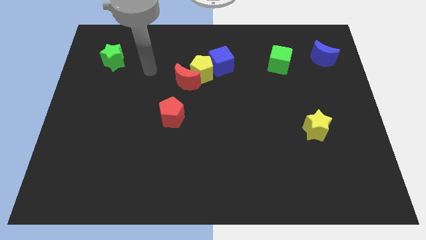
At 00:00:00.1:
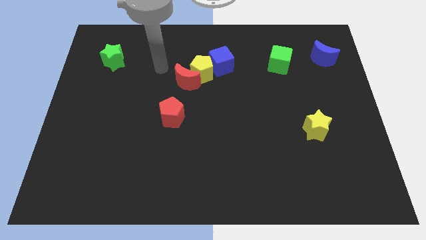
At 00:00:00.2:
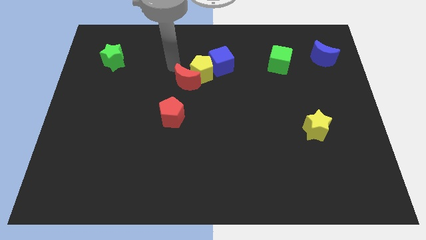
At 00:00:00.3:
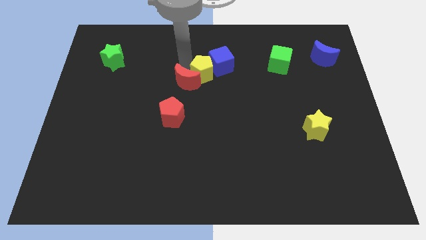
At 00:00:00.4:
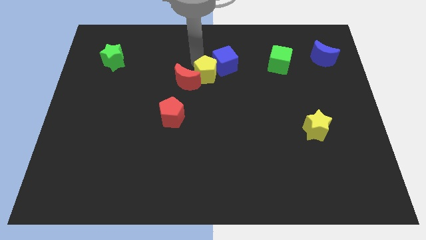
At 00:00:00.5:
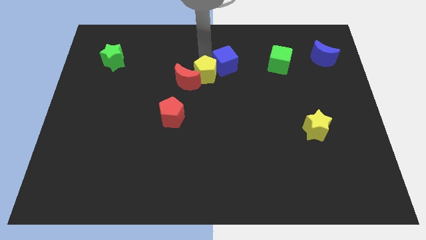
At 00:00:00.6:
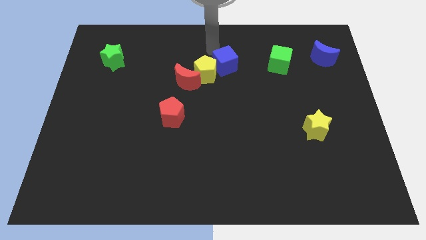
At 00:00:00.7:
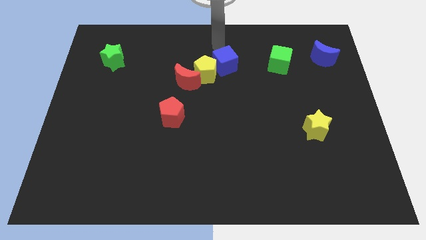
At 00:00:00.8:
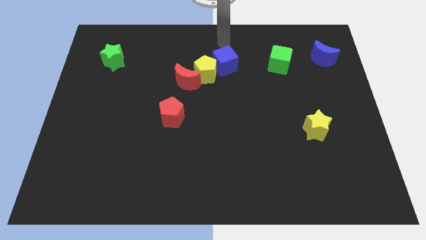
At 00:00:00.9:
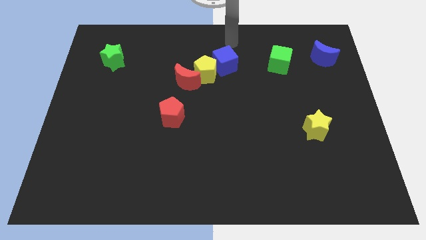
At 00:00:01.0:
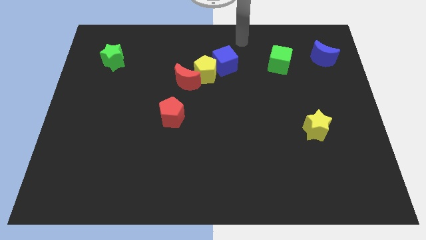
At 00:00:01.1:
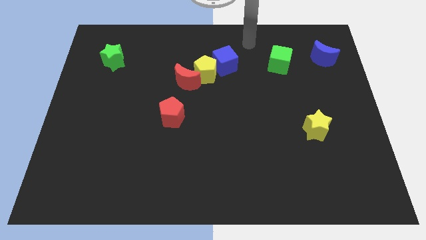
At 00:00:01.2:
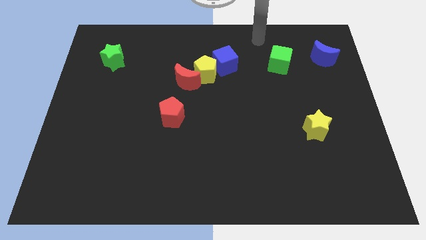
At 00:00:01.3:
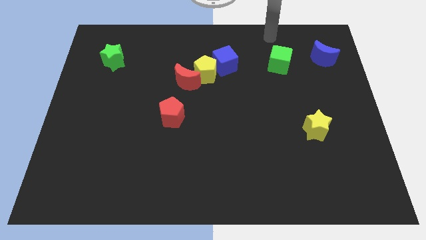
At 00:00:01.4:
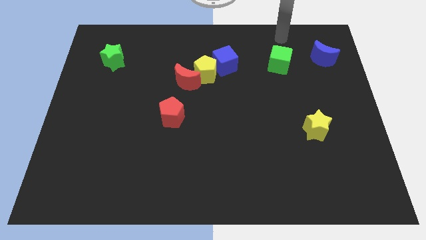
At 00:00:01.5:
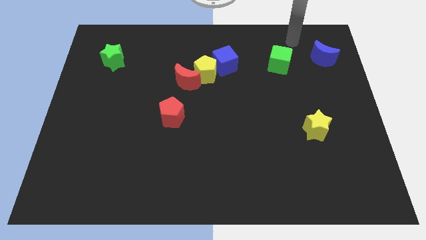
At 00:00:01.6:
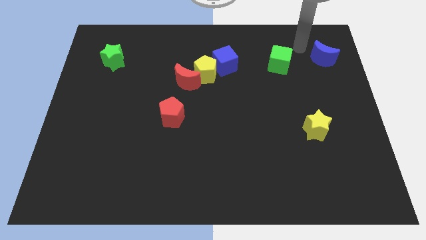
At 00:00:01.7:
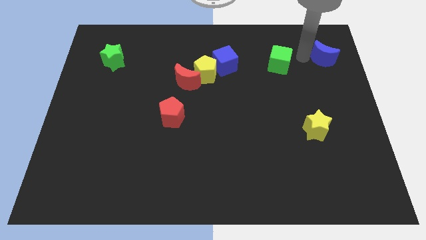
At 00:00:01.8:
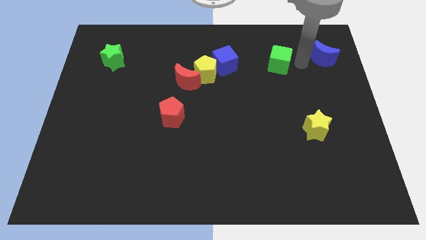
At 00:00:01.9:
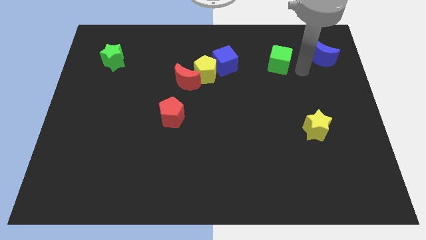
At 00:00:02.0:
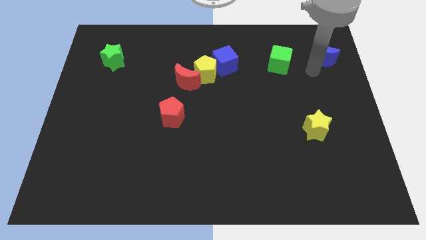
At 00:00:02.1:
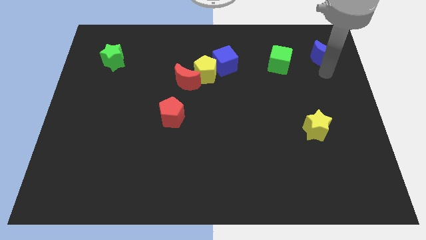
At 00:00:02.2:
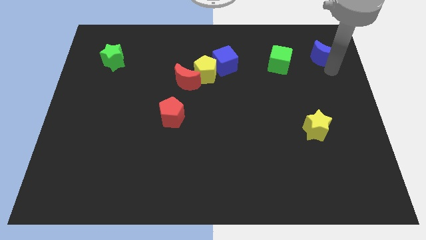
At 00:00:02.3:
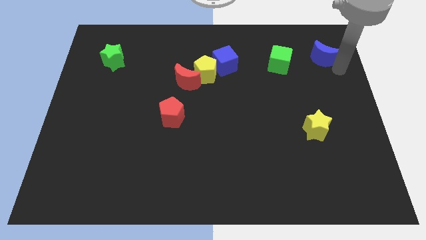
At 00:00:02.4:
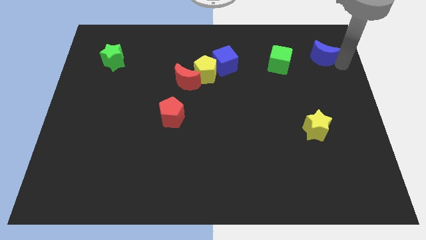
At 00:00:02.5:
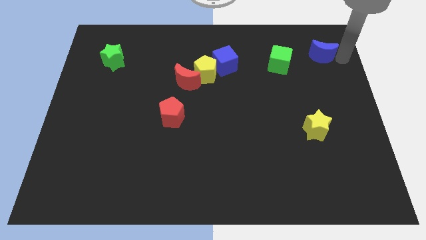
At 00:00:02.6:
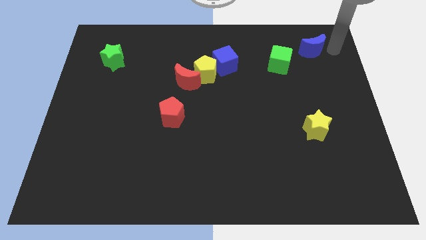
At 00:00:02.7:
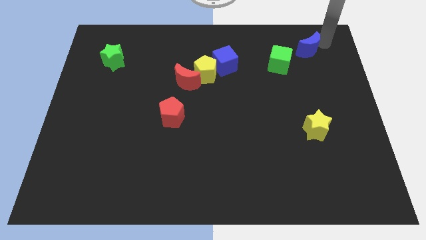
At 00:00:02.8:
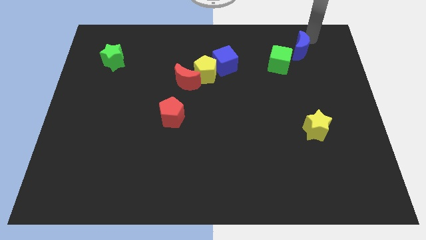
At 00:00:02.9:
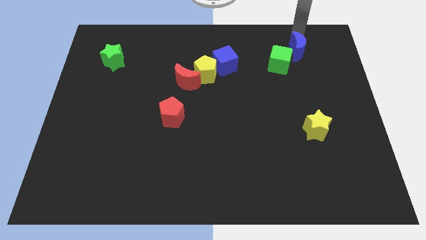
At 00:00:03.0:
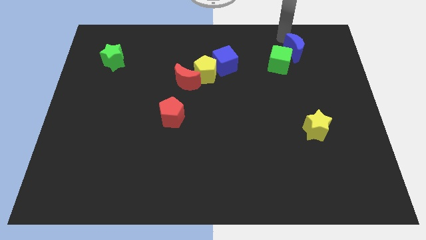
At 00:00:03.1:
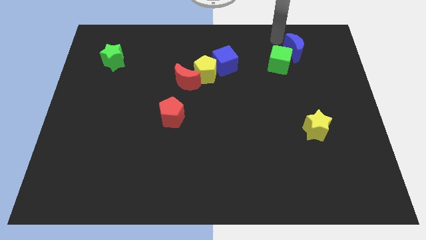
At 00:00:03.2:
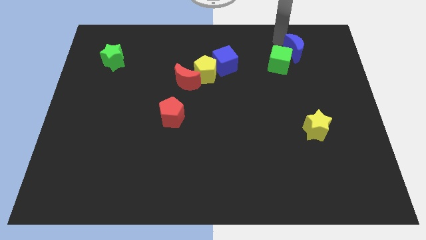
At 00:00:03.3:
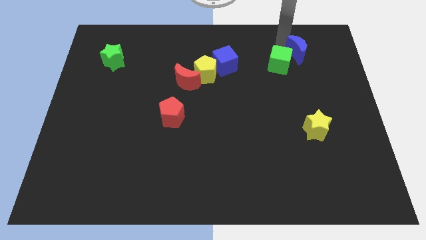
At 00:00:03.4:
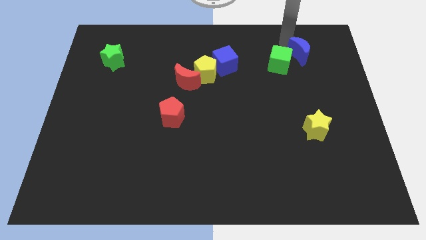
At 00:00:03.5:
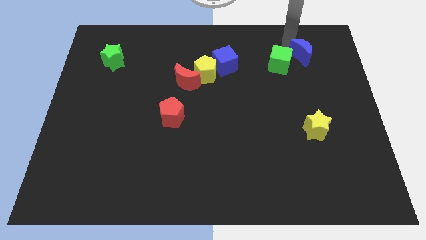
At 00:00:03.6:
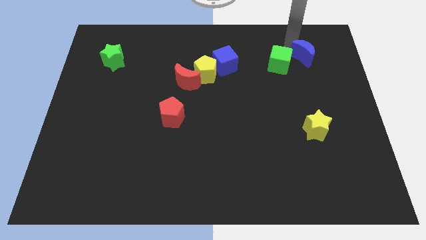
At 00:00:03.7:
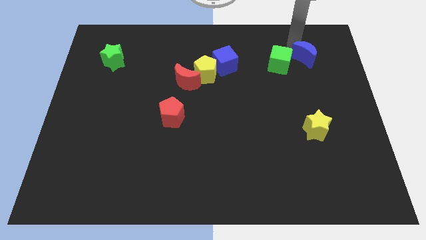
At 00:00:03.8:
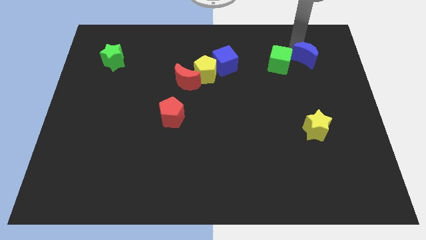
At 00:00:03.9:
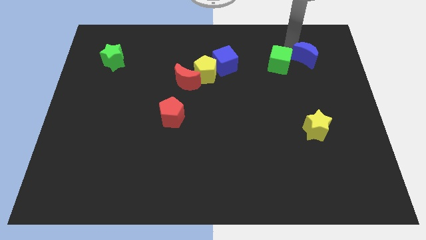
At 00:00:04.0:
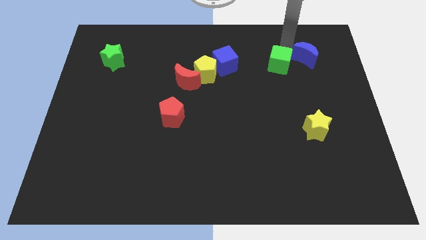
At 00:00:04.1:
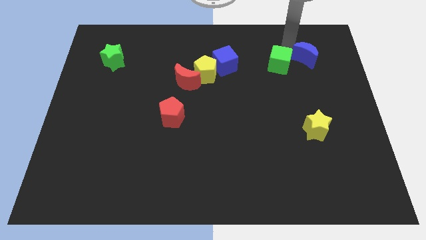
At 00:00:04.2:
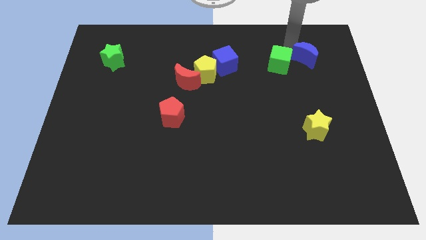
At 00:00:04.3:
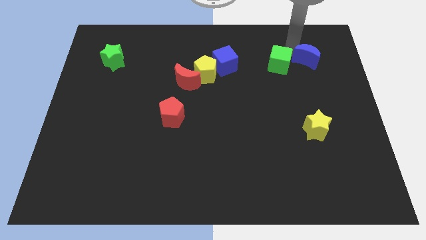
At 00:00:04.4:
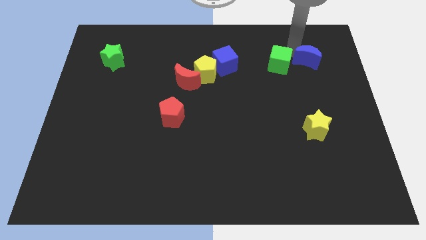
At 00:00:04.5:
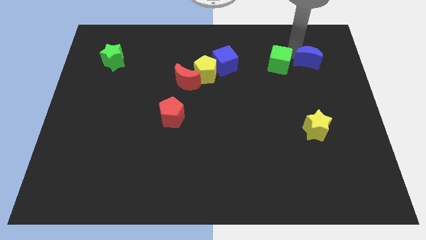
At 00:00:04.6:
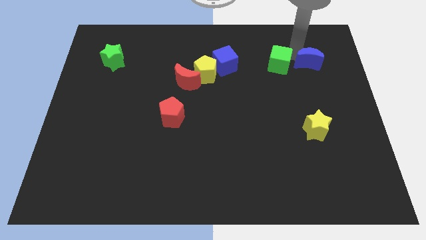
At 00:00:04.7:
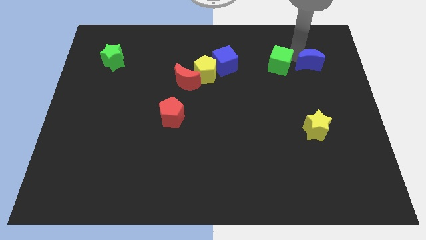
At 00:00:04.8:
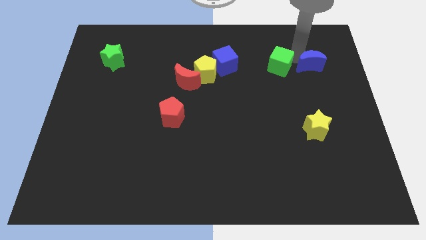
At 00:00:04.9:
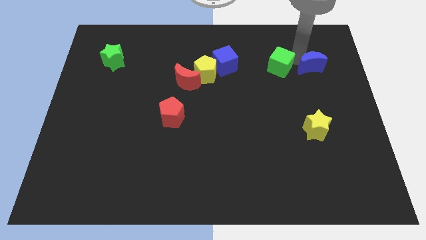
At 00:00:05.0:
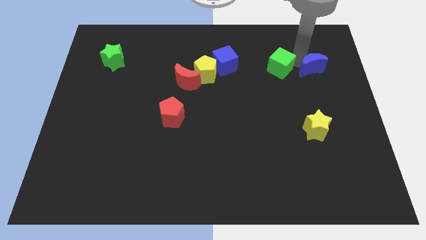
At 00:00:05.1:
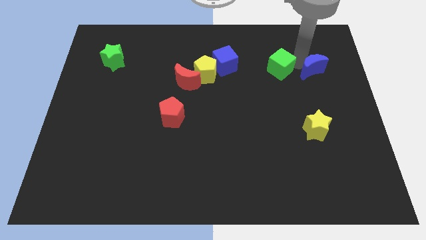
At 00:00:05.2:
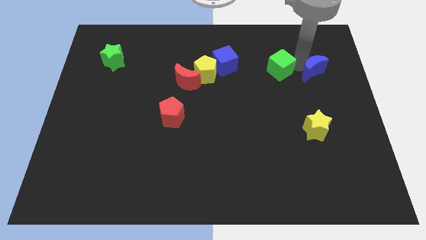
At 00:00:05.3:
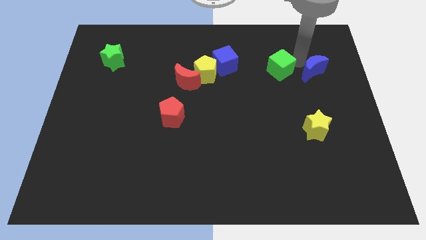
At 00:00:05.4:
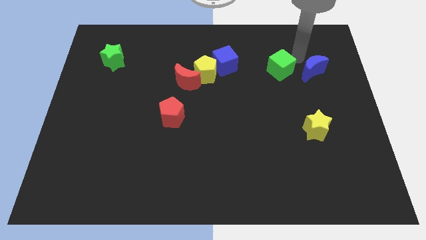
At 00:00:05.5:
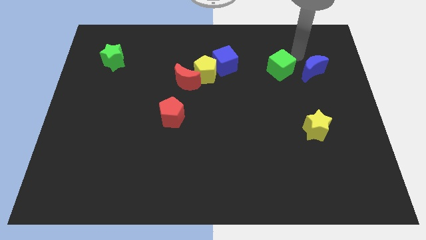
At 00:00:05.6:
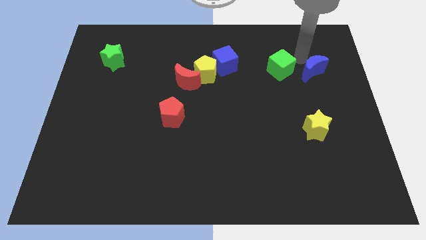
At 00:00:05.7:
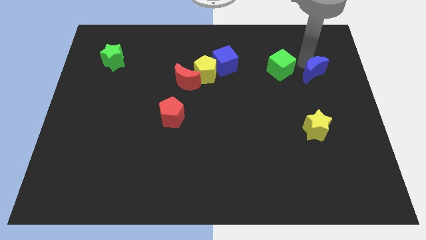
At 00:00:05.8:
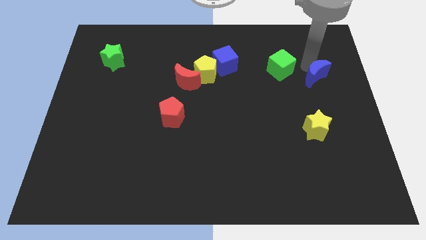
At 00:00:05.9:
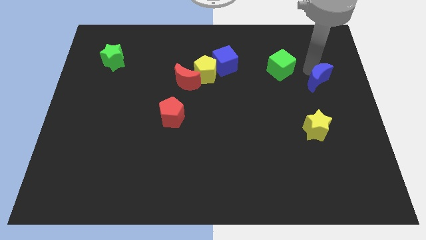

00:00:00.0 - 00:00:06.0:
slightly push the blue moon down

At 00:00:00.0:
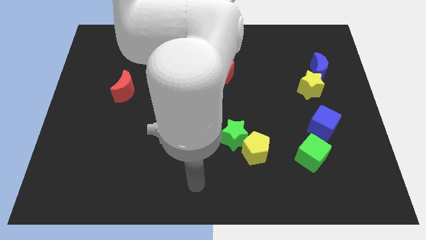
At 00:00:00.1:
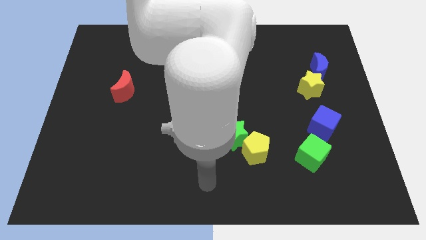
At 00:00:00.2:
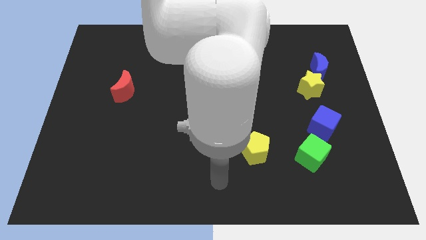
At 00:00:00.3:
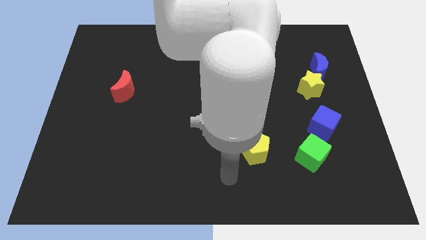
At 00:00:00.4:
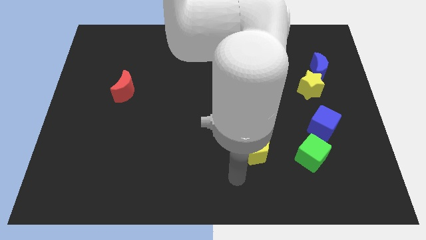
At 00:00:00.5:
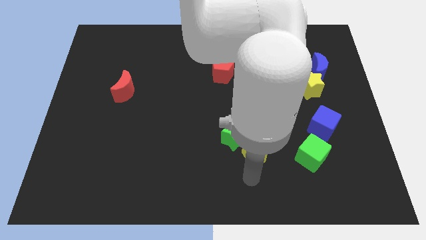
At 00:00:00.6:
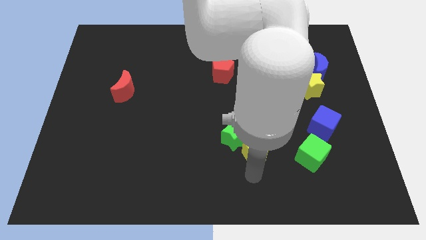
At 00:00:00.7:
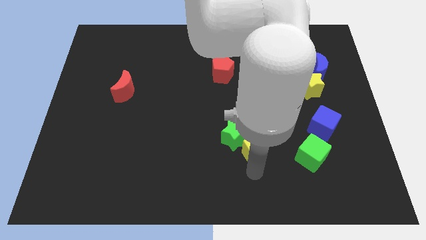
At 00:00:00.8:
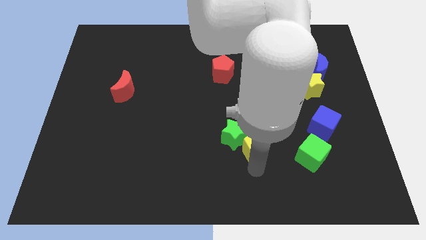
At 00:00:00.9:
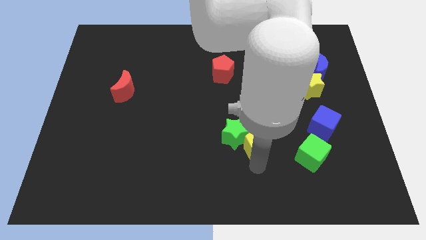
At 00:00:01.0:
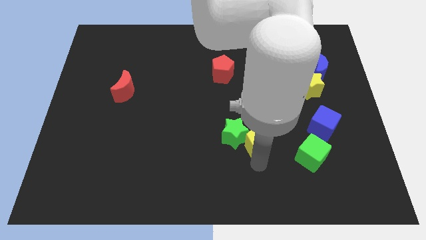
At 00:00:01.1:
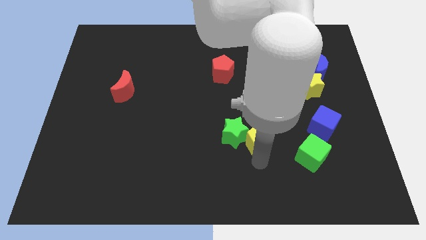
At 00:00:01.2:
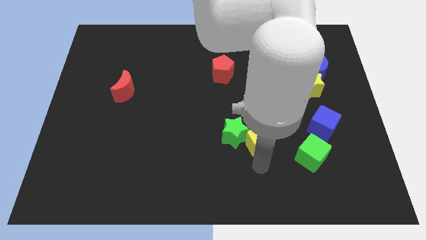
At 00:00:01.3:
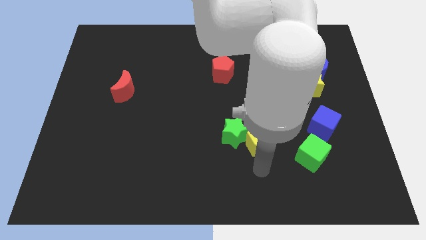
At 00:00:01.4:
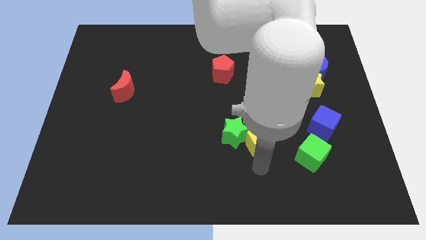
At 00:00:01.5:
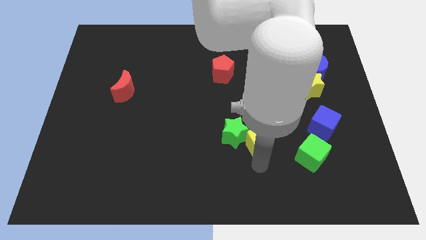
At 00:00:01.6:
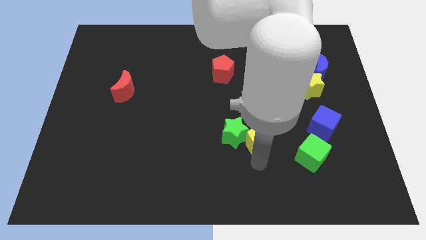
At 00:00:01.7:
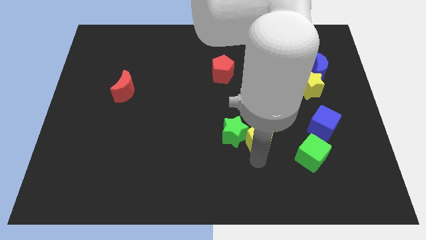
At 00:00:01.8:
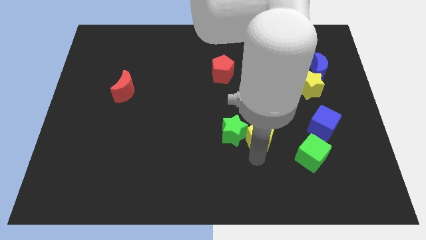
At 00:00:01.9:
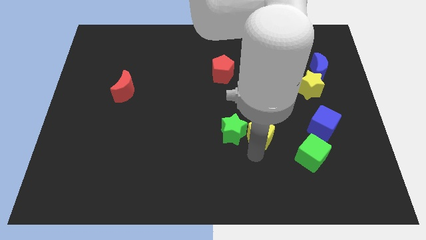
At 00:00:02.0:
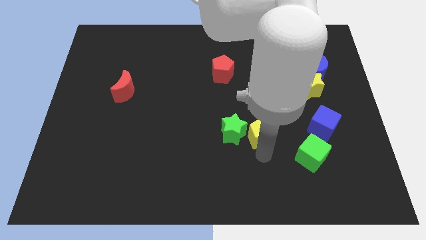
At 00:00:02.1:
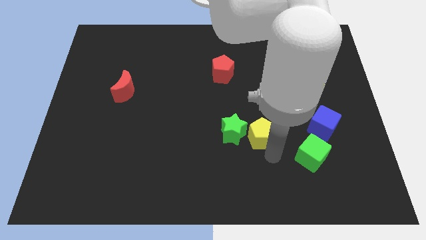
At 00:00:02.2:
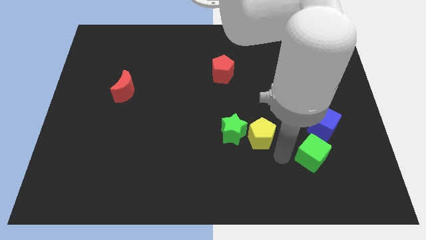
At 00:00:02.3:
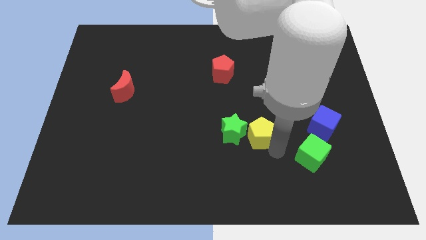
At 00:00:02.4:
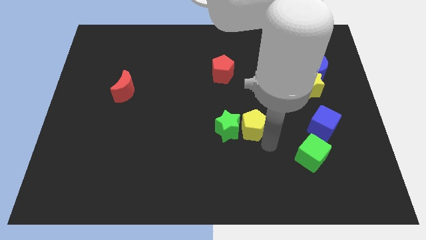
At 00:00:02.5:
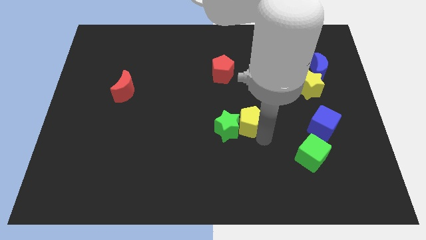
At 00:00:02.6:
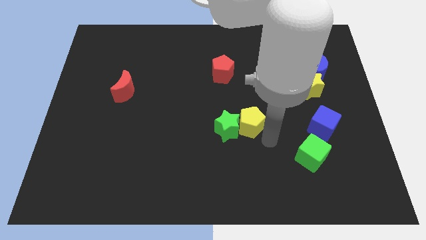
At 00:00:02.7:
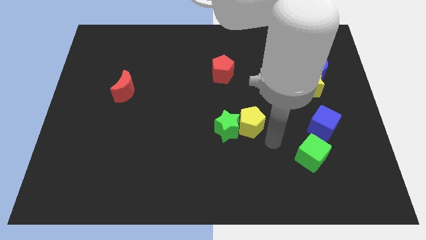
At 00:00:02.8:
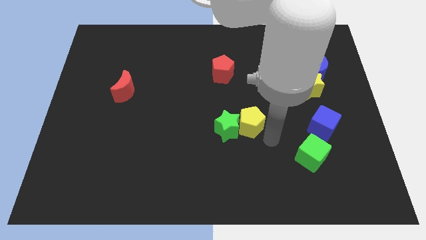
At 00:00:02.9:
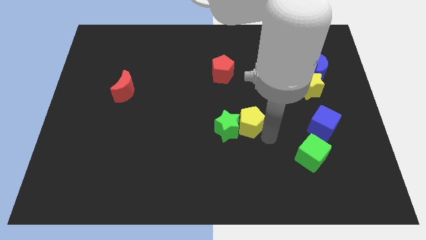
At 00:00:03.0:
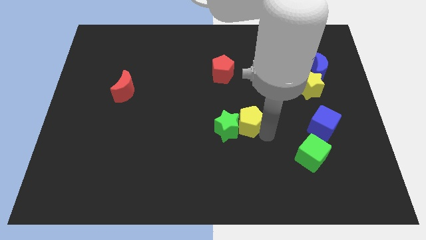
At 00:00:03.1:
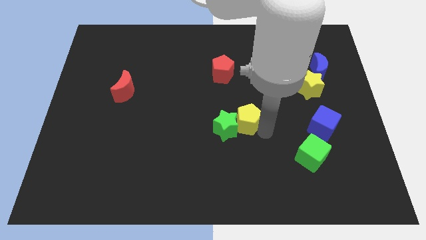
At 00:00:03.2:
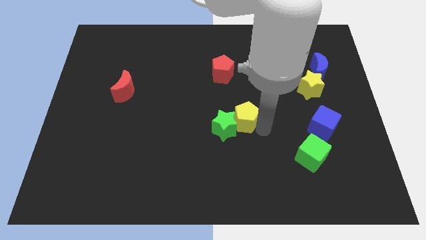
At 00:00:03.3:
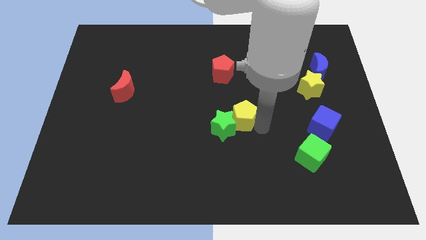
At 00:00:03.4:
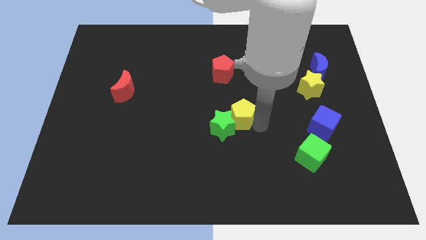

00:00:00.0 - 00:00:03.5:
push the yellow pentagon diagonally up and to the left a little
